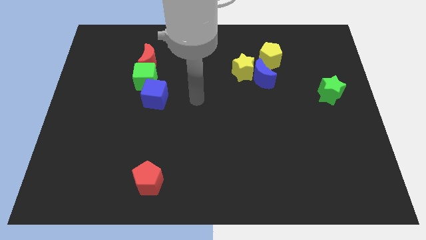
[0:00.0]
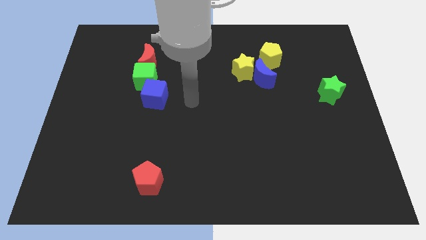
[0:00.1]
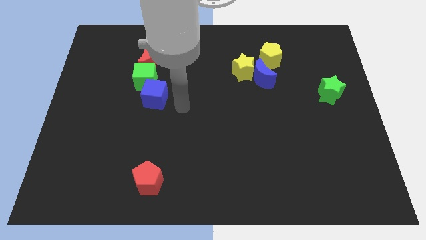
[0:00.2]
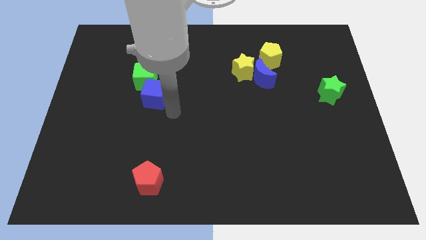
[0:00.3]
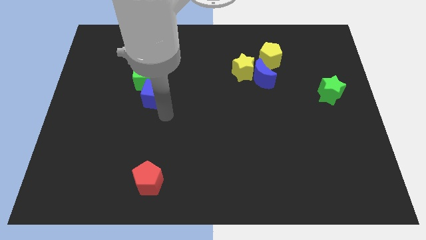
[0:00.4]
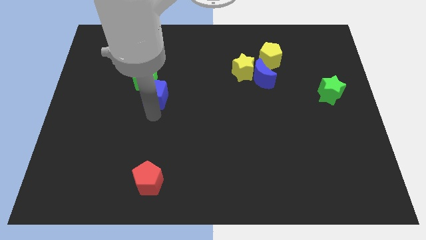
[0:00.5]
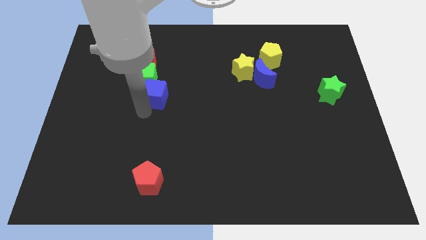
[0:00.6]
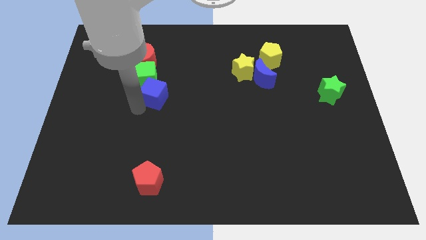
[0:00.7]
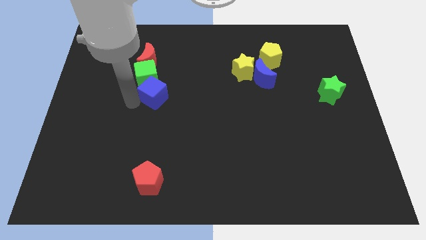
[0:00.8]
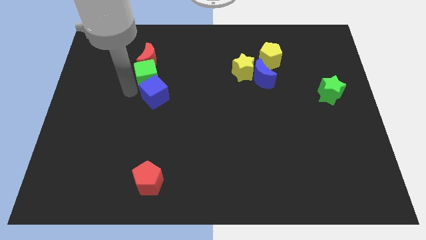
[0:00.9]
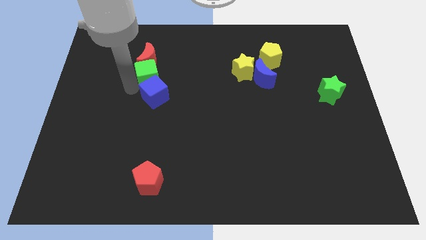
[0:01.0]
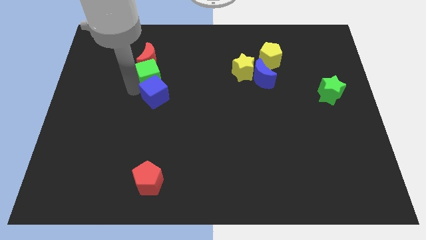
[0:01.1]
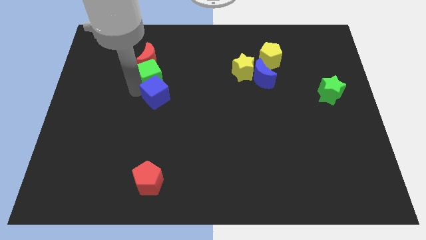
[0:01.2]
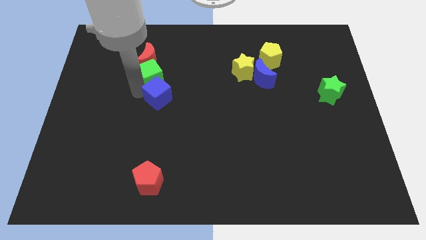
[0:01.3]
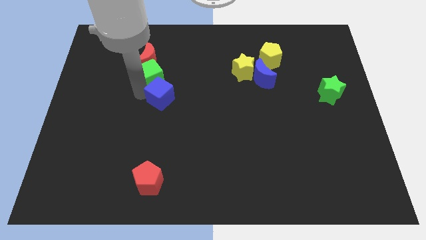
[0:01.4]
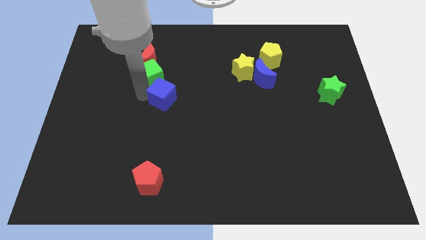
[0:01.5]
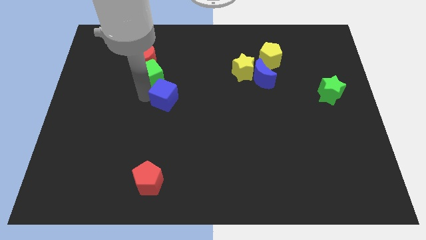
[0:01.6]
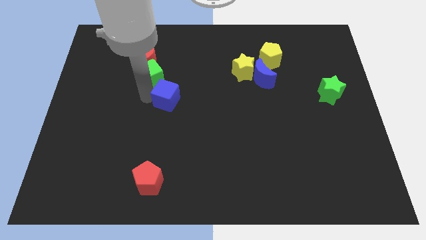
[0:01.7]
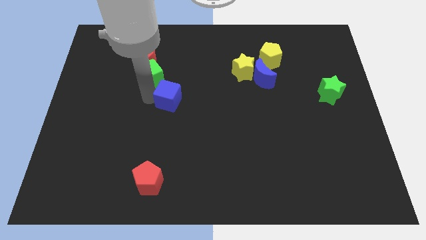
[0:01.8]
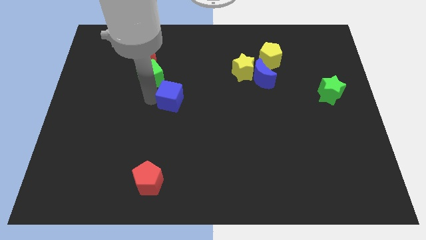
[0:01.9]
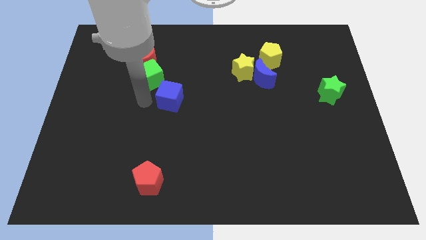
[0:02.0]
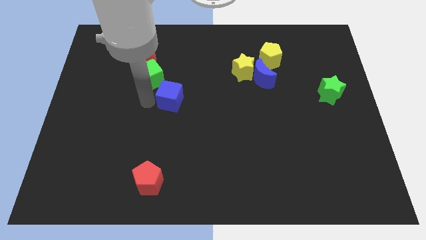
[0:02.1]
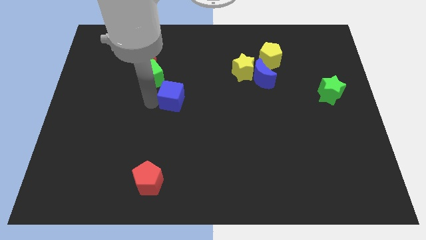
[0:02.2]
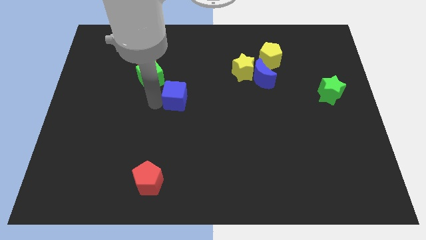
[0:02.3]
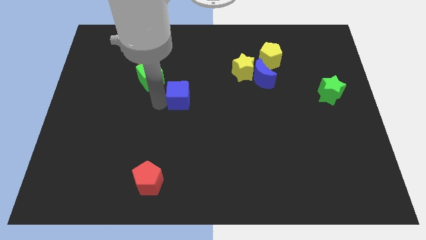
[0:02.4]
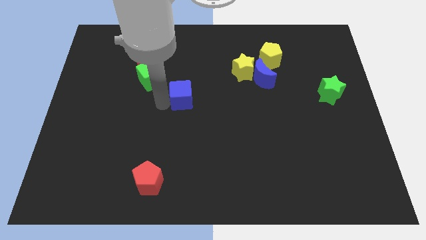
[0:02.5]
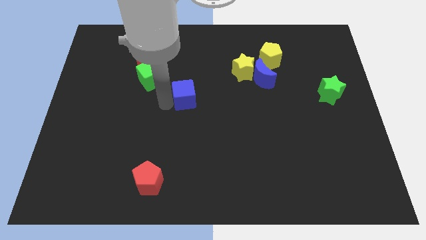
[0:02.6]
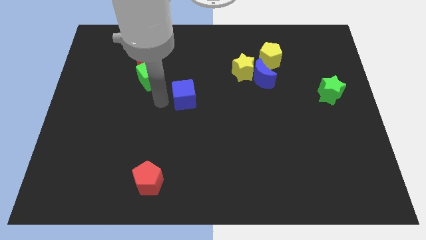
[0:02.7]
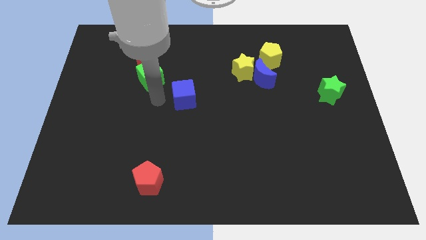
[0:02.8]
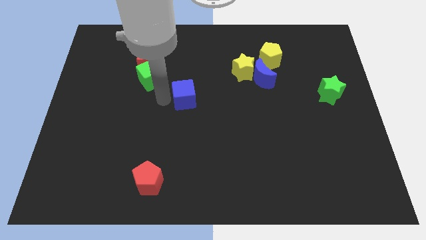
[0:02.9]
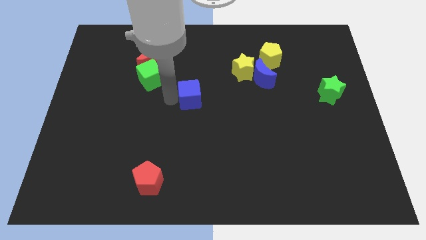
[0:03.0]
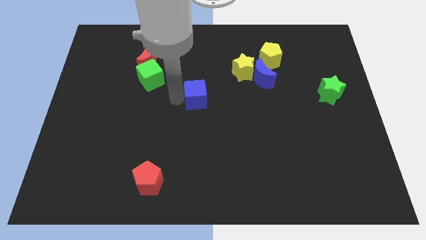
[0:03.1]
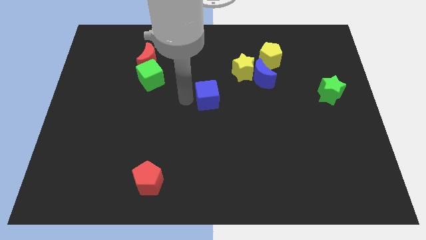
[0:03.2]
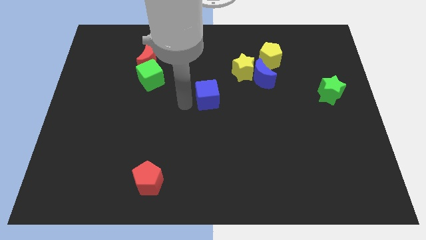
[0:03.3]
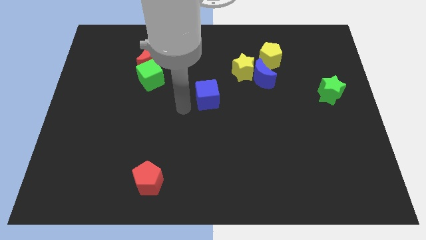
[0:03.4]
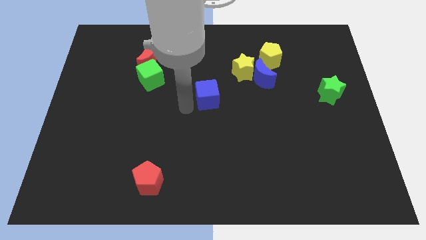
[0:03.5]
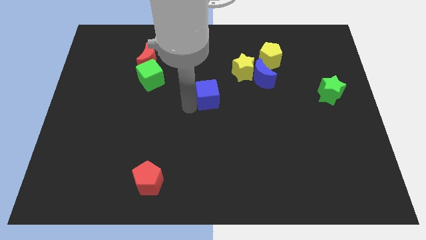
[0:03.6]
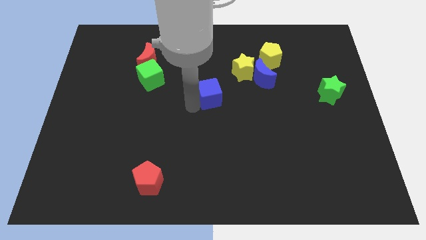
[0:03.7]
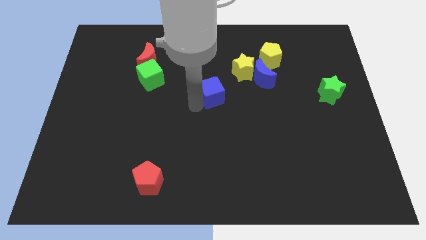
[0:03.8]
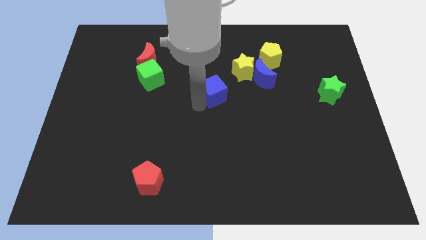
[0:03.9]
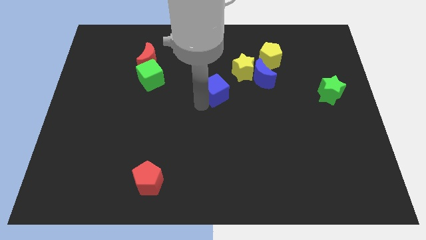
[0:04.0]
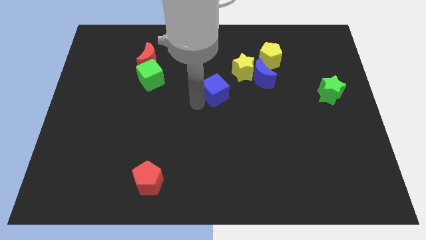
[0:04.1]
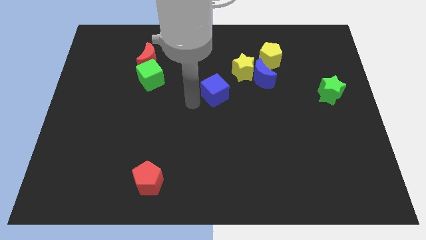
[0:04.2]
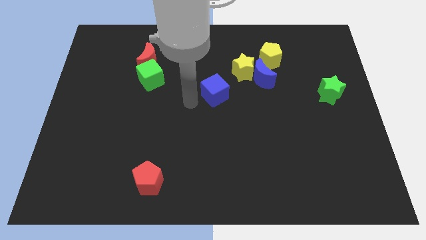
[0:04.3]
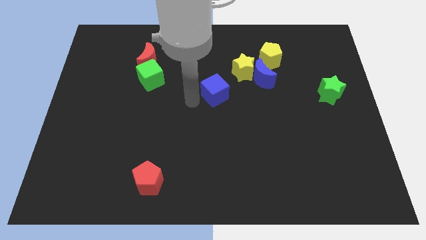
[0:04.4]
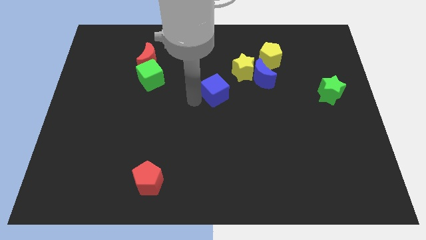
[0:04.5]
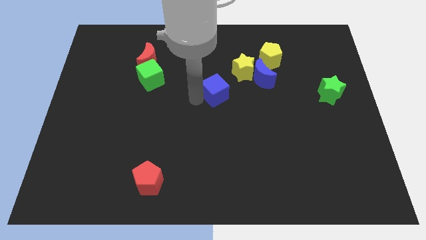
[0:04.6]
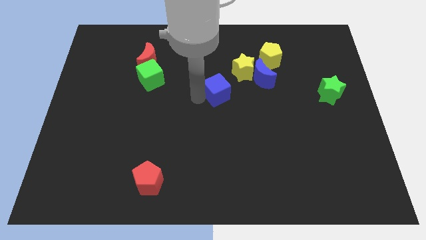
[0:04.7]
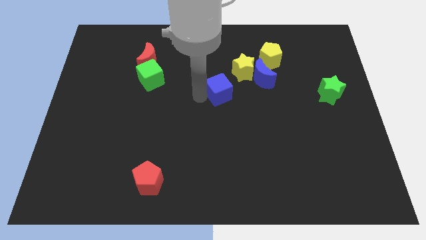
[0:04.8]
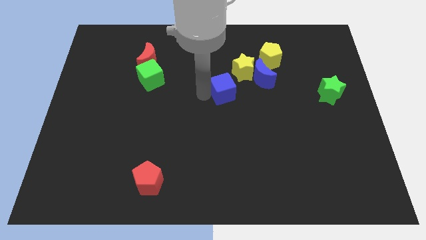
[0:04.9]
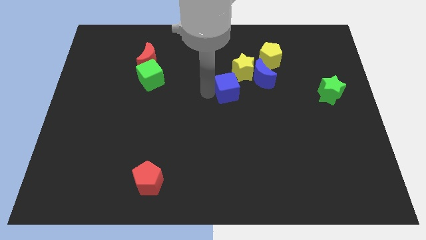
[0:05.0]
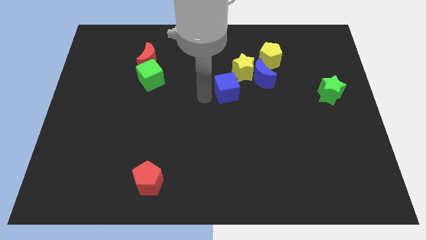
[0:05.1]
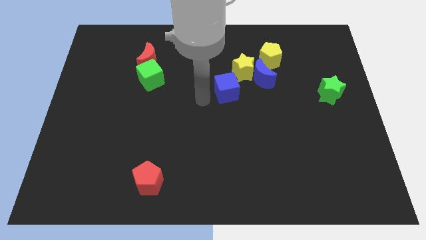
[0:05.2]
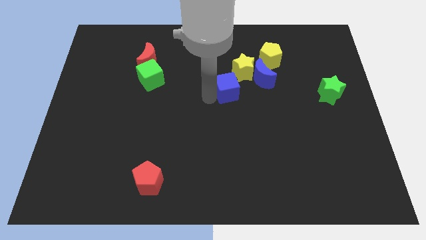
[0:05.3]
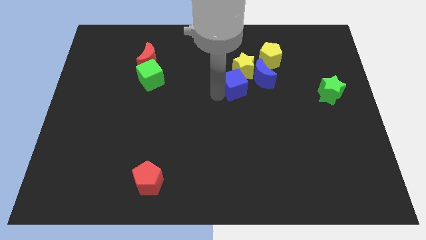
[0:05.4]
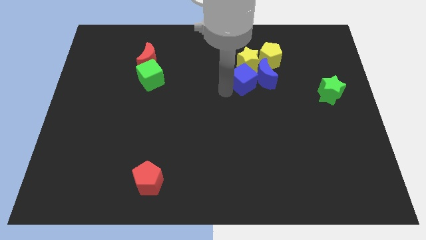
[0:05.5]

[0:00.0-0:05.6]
slide the blue cube close to the blue moon

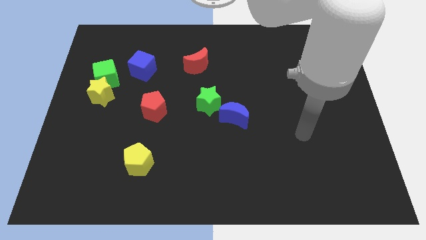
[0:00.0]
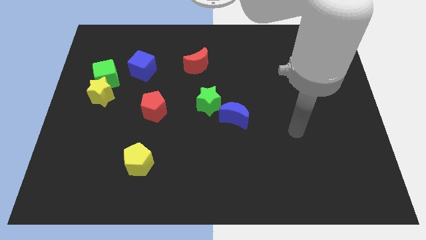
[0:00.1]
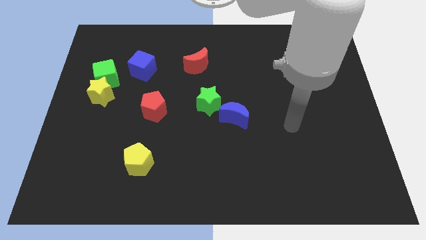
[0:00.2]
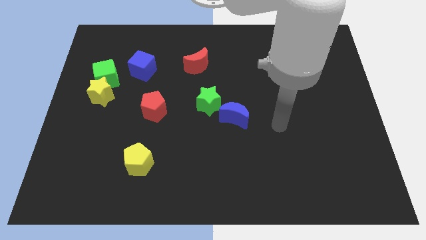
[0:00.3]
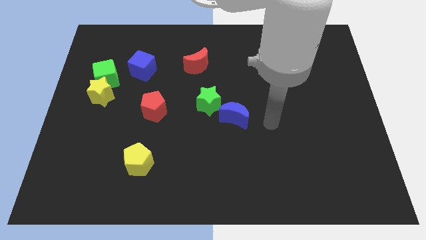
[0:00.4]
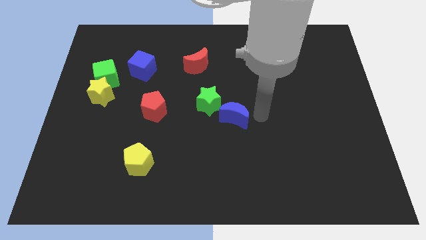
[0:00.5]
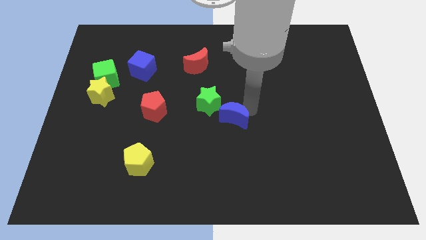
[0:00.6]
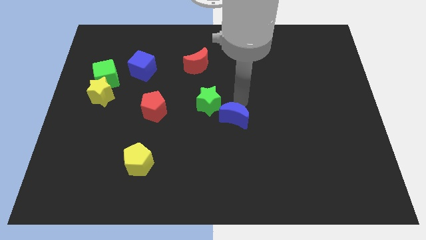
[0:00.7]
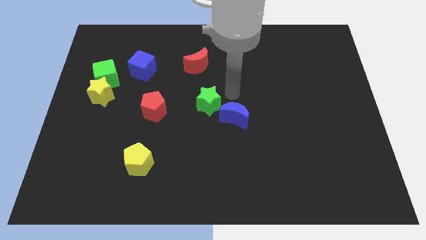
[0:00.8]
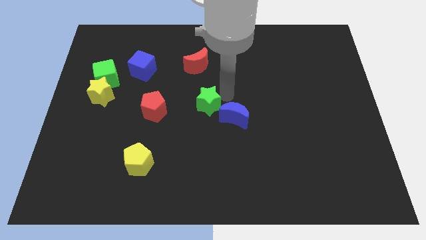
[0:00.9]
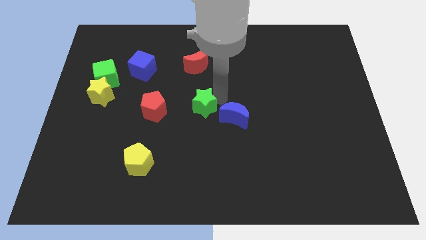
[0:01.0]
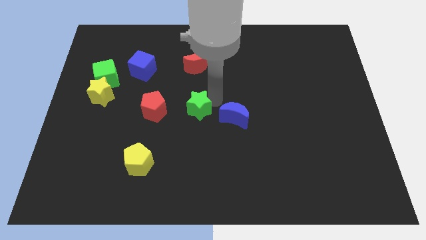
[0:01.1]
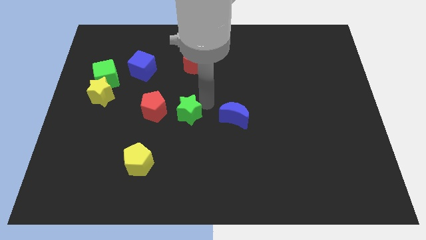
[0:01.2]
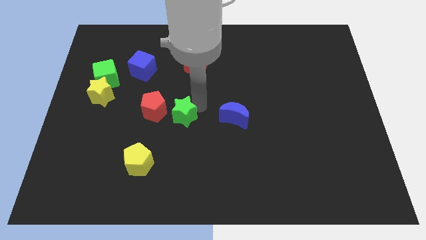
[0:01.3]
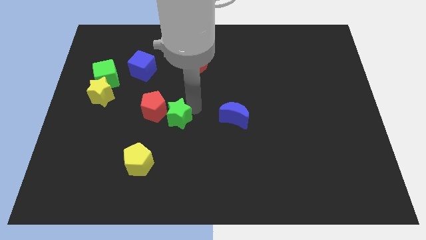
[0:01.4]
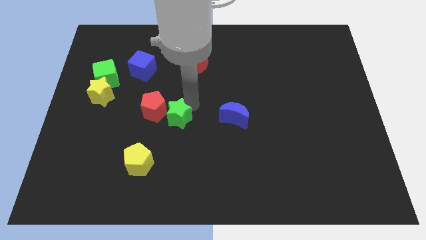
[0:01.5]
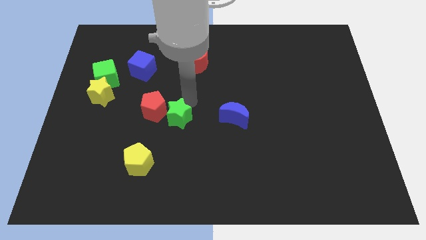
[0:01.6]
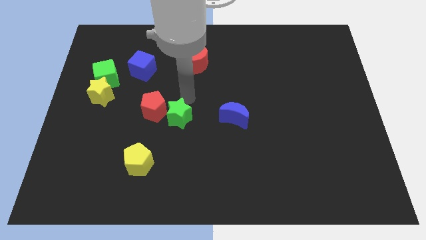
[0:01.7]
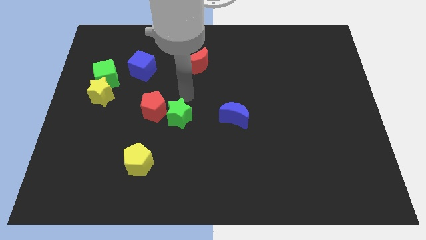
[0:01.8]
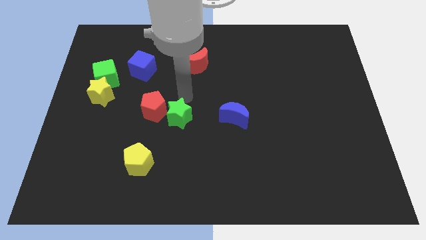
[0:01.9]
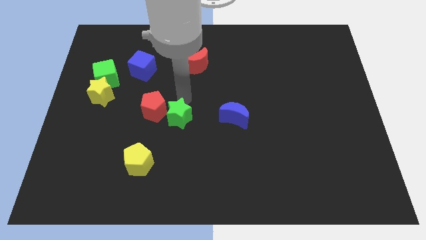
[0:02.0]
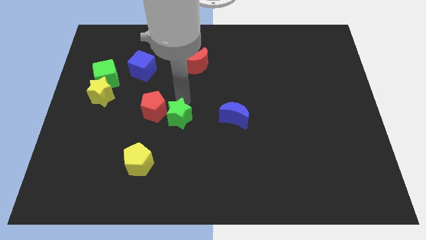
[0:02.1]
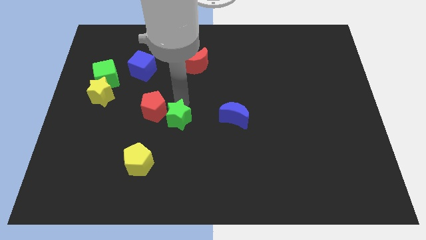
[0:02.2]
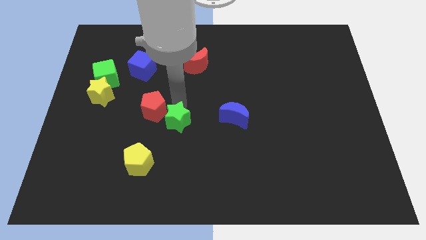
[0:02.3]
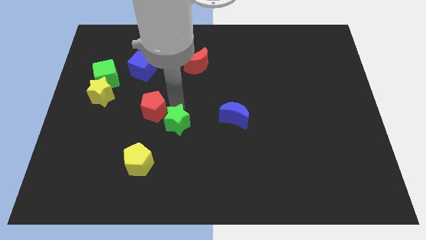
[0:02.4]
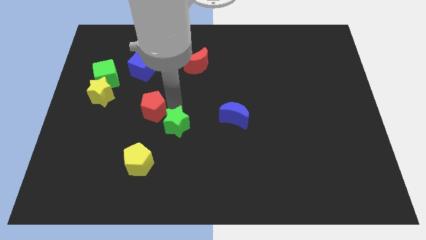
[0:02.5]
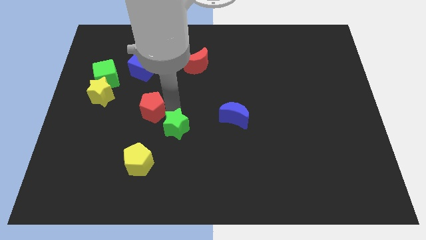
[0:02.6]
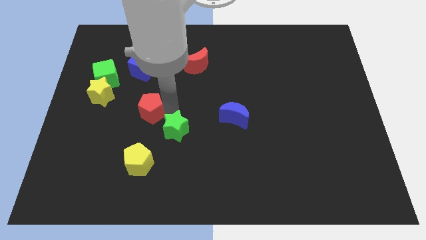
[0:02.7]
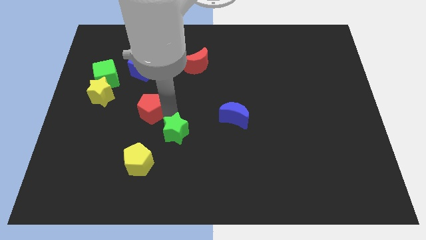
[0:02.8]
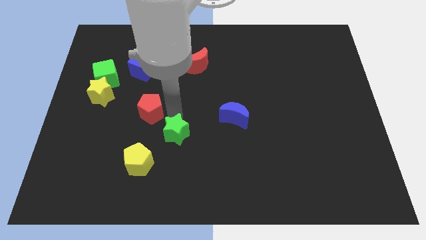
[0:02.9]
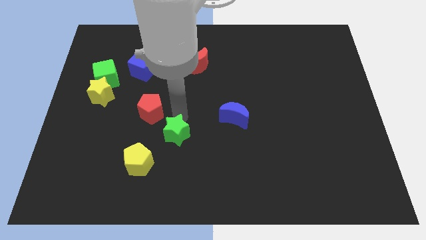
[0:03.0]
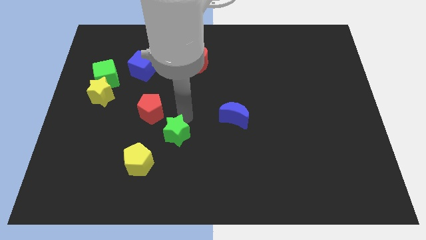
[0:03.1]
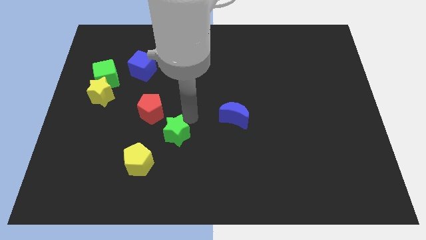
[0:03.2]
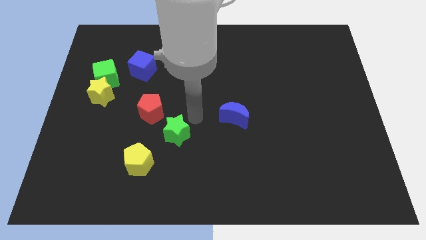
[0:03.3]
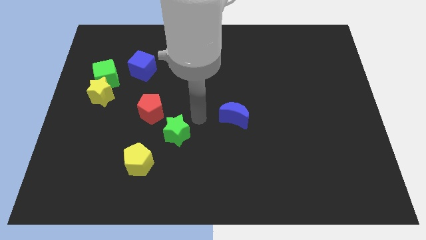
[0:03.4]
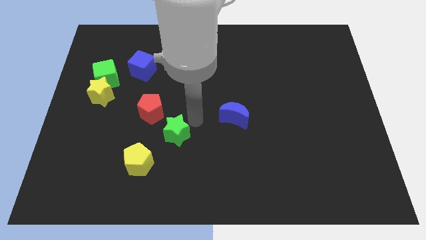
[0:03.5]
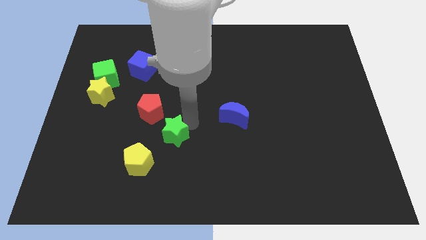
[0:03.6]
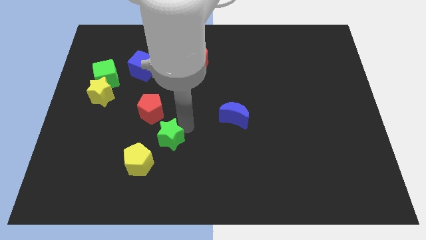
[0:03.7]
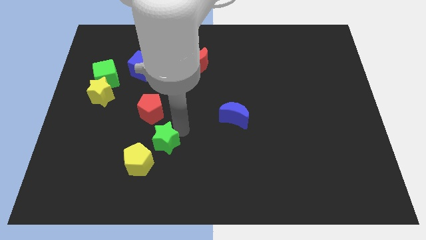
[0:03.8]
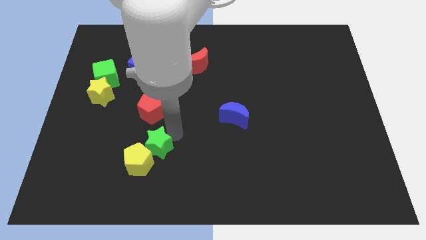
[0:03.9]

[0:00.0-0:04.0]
put the green star next to the yellow pentagon
